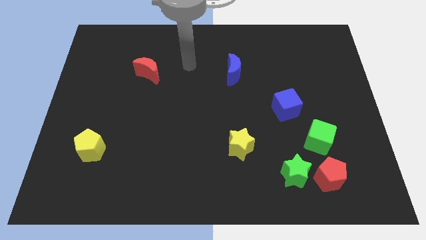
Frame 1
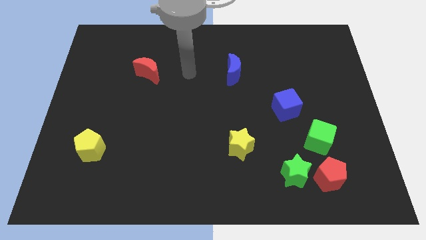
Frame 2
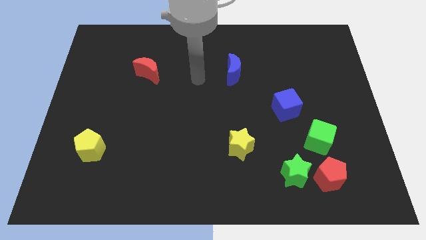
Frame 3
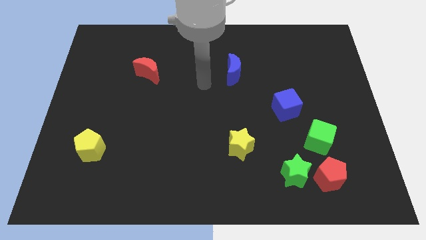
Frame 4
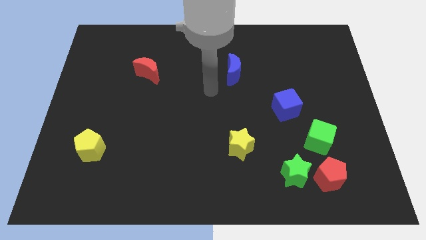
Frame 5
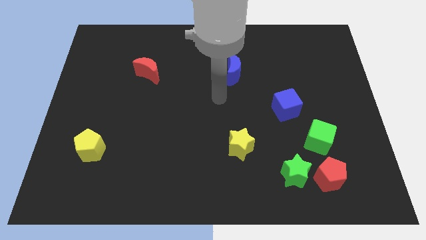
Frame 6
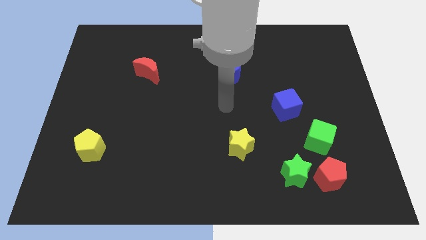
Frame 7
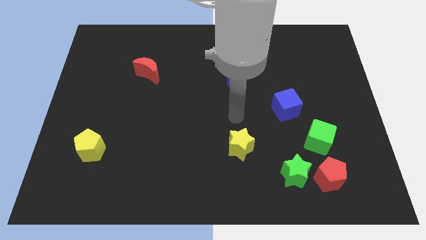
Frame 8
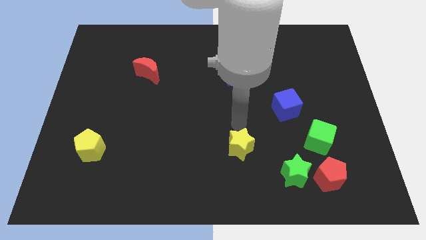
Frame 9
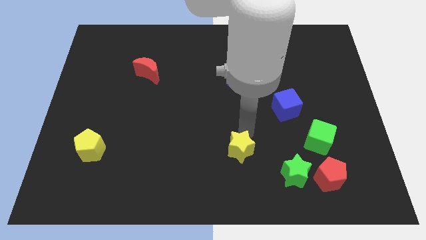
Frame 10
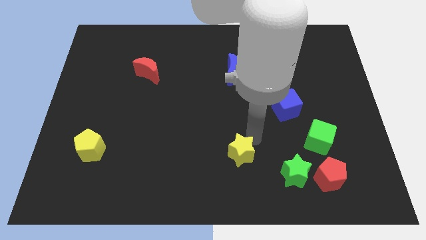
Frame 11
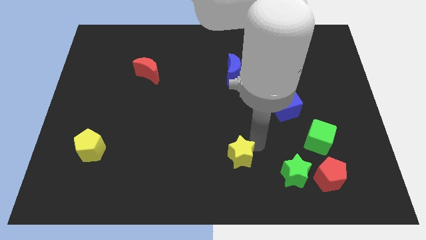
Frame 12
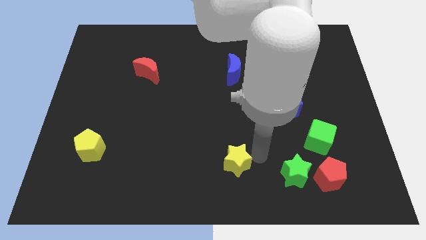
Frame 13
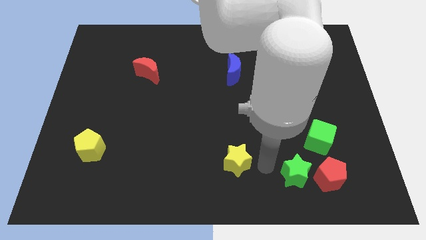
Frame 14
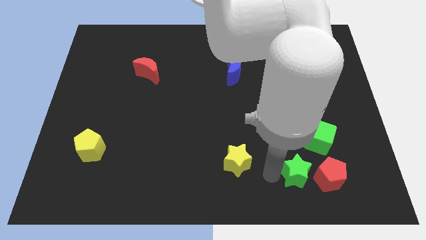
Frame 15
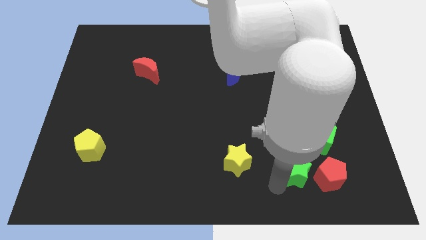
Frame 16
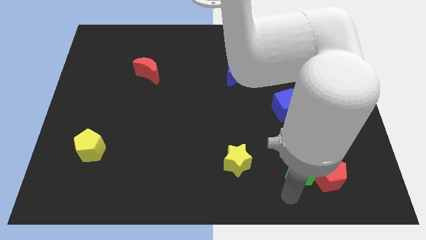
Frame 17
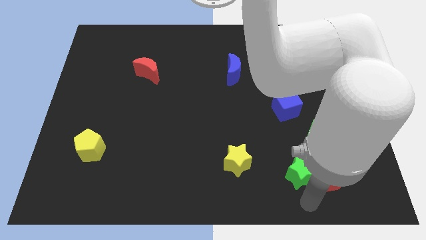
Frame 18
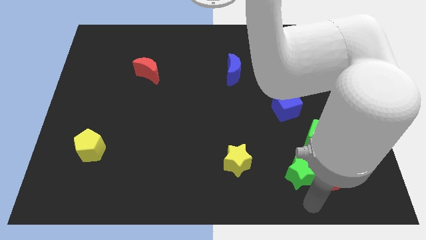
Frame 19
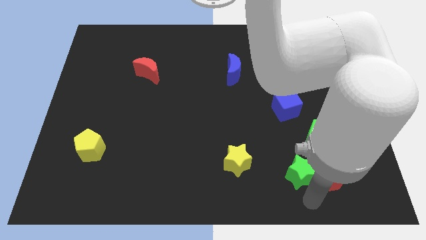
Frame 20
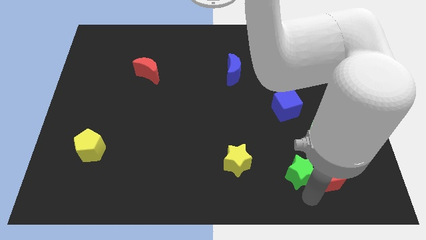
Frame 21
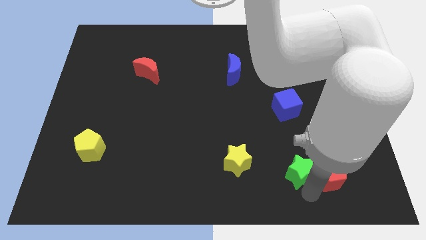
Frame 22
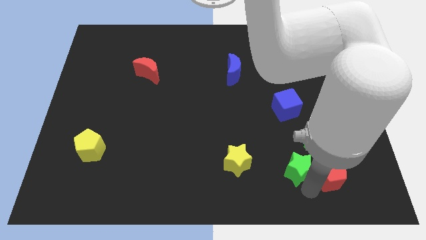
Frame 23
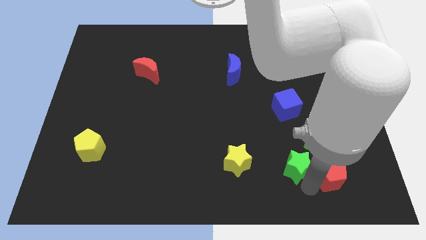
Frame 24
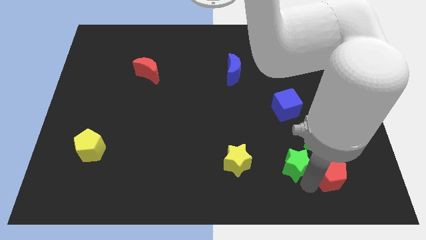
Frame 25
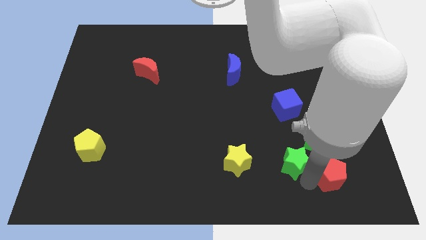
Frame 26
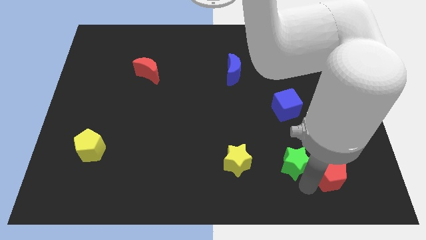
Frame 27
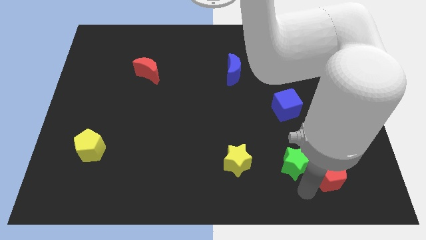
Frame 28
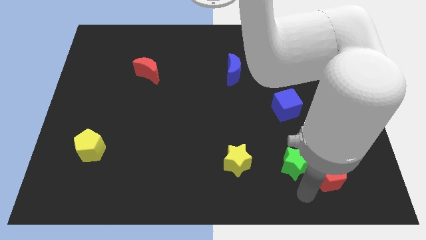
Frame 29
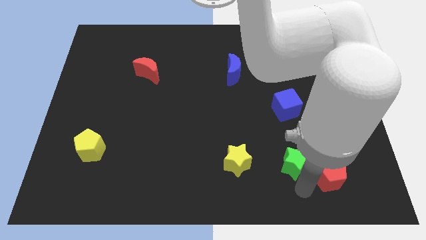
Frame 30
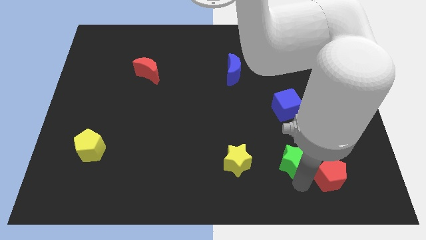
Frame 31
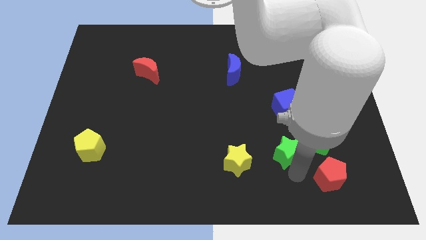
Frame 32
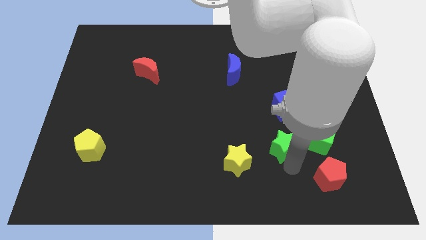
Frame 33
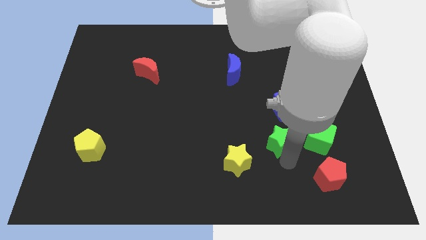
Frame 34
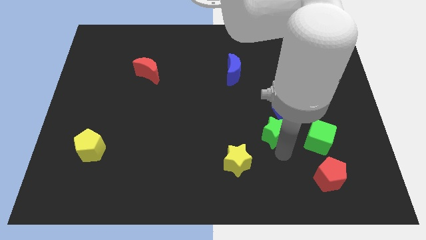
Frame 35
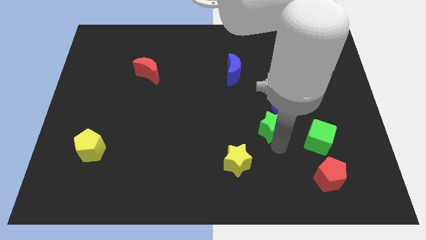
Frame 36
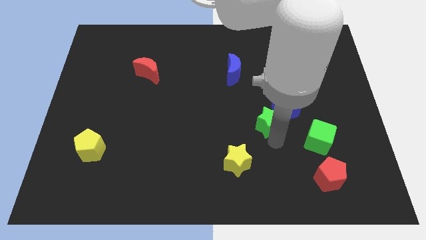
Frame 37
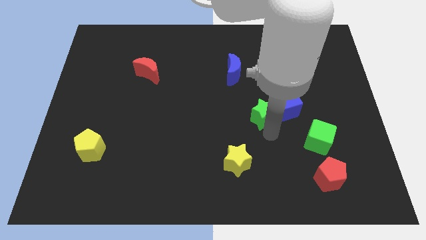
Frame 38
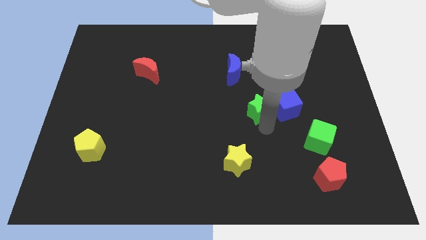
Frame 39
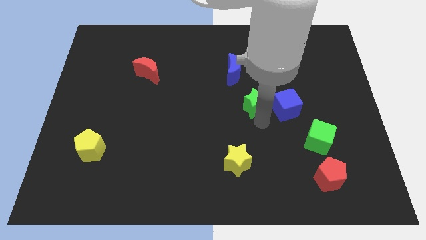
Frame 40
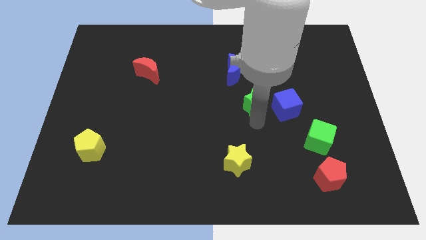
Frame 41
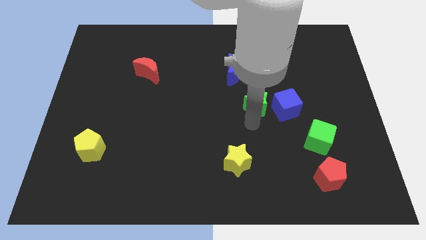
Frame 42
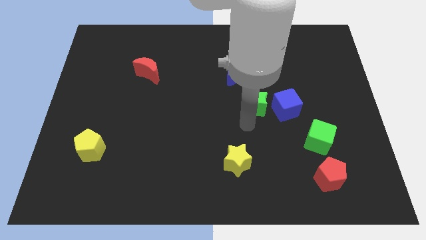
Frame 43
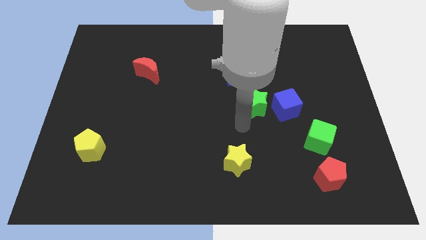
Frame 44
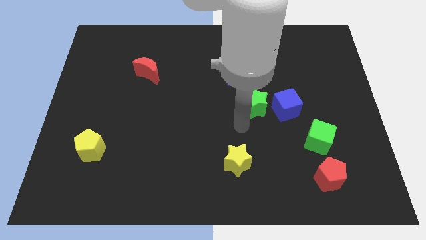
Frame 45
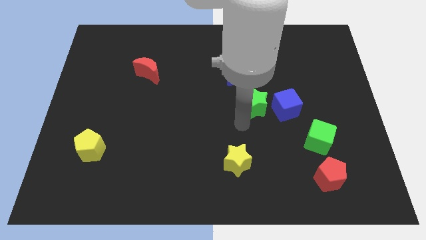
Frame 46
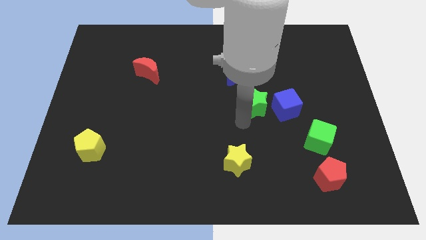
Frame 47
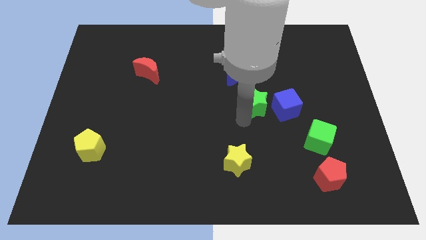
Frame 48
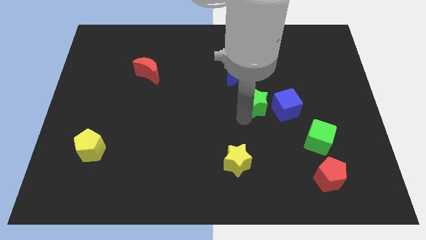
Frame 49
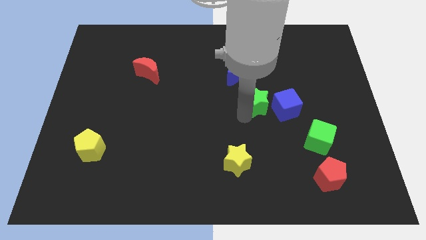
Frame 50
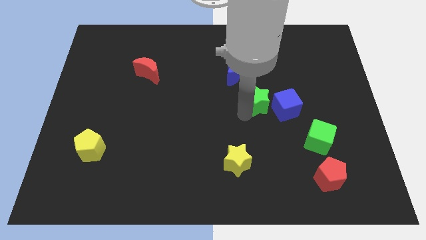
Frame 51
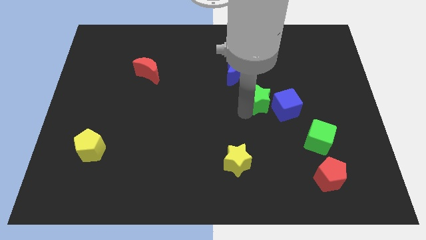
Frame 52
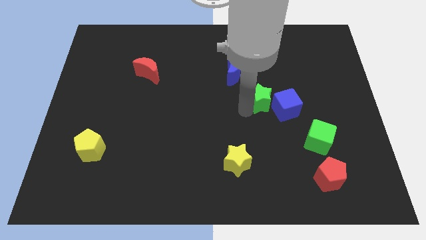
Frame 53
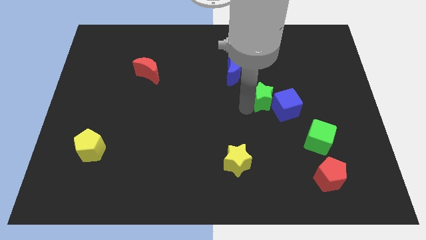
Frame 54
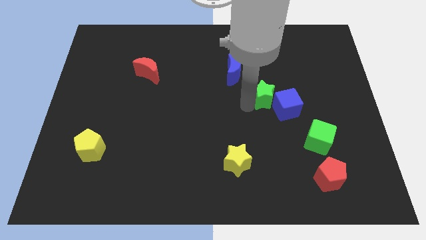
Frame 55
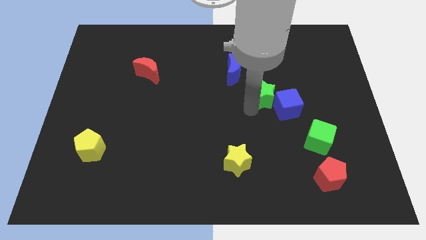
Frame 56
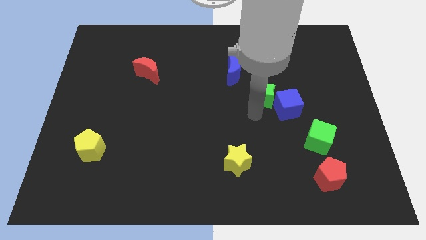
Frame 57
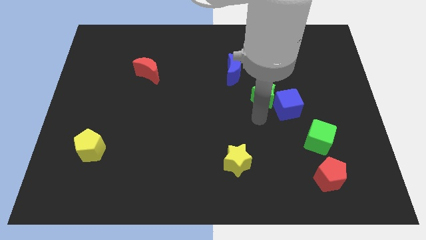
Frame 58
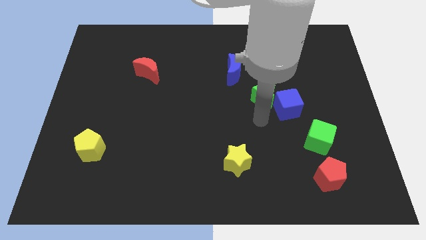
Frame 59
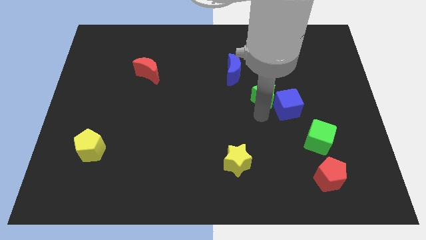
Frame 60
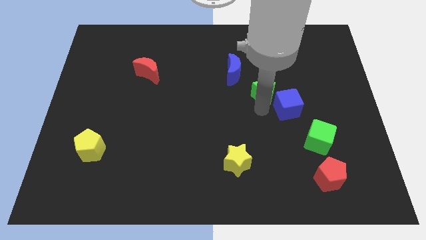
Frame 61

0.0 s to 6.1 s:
slide the green star up

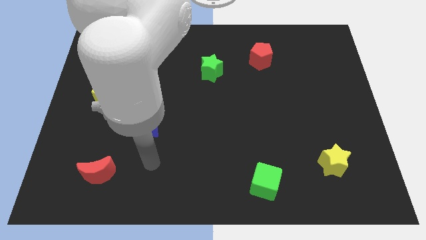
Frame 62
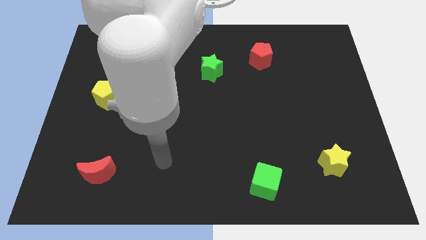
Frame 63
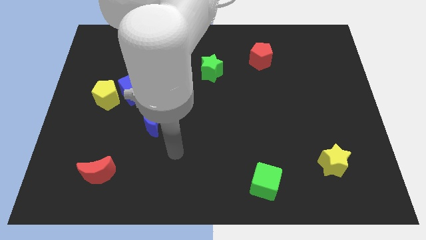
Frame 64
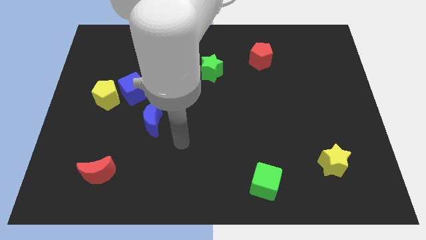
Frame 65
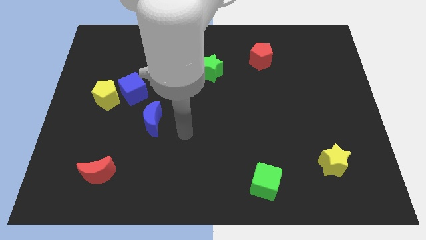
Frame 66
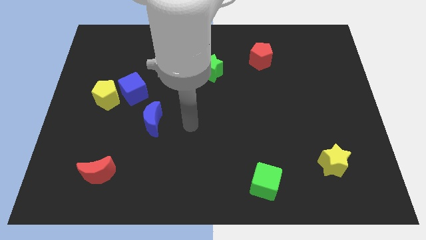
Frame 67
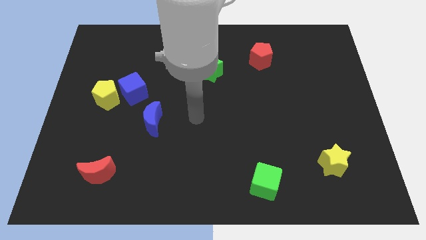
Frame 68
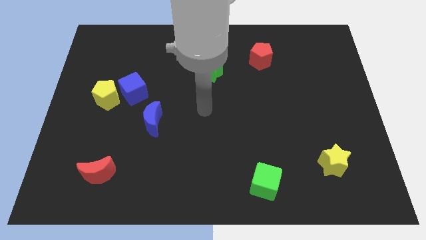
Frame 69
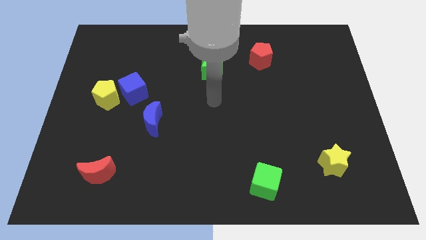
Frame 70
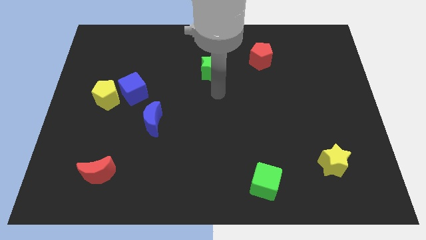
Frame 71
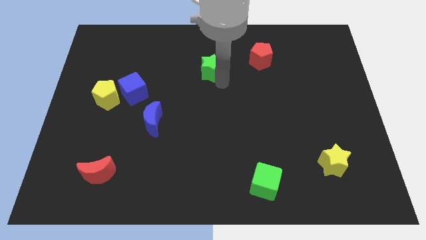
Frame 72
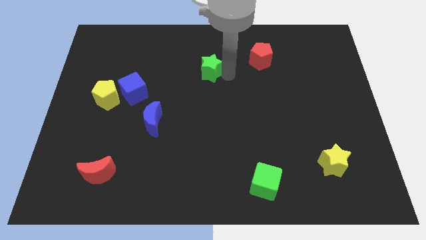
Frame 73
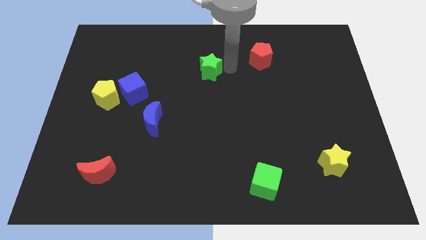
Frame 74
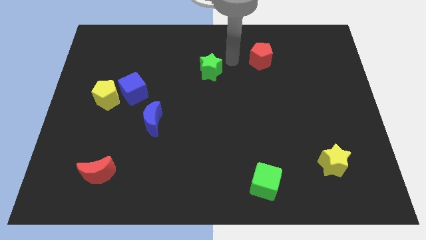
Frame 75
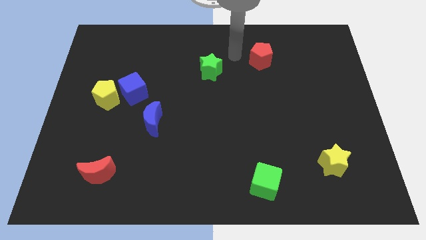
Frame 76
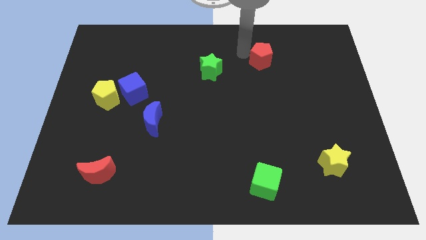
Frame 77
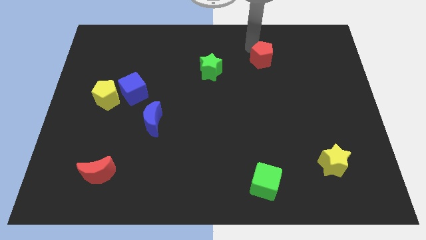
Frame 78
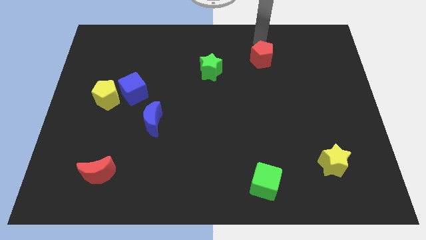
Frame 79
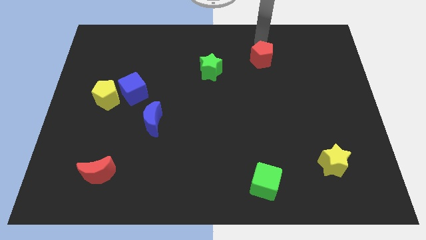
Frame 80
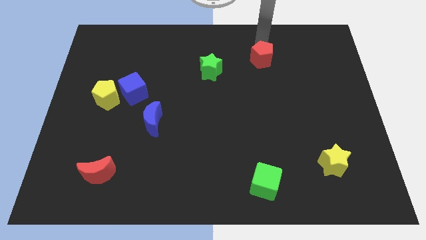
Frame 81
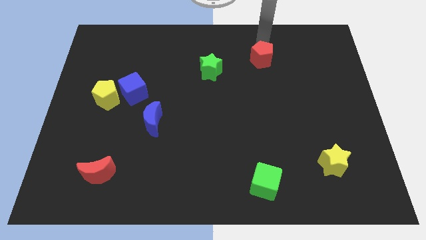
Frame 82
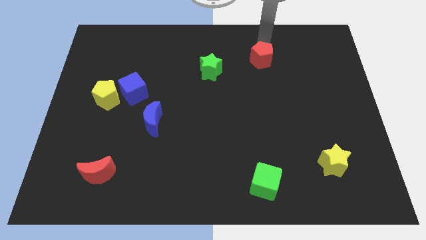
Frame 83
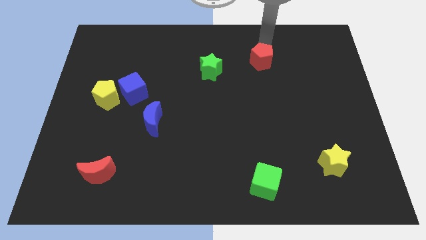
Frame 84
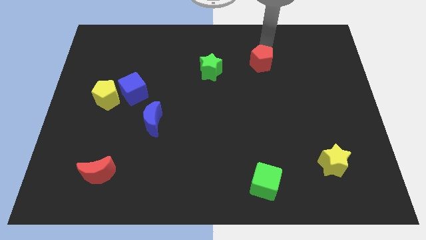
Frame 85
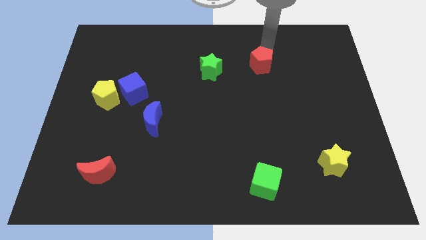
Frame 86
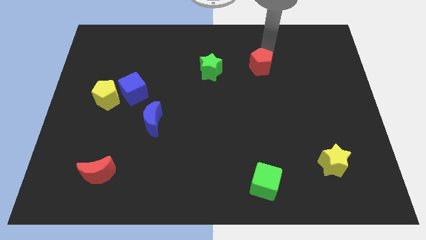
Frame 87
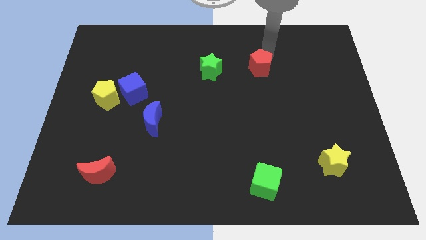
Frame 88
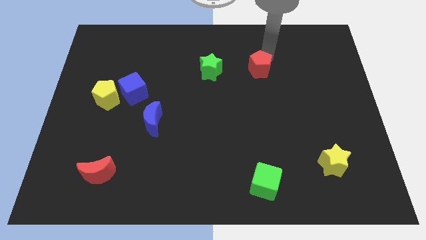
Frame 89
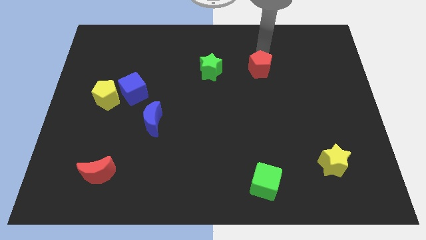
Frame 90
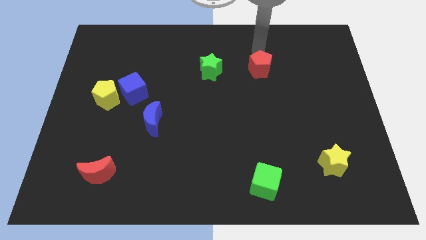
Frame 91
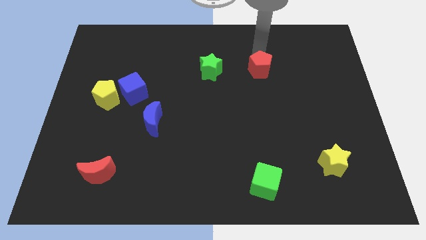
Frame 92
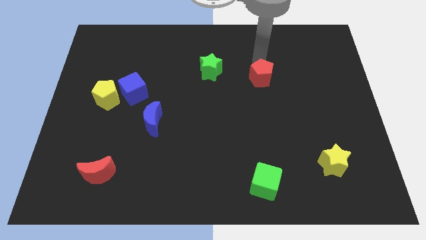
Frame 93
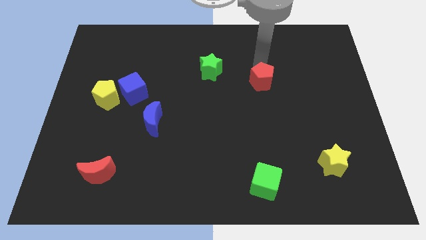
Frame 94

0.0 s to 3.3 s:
slide the red pentagon down a bit
